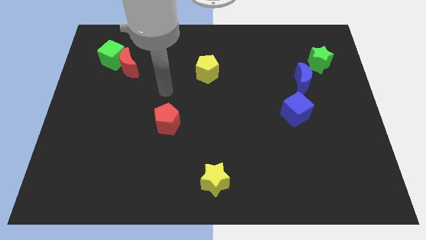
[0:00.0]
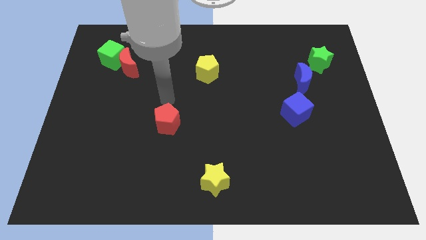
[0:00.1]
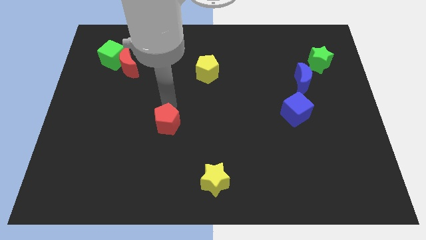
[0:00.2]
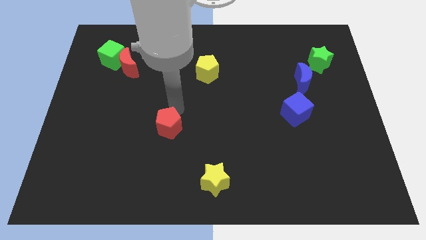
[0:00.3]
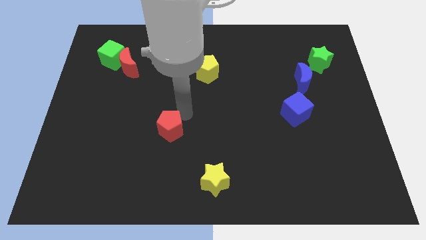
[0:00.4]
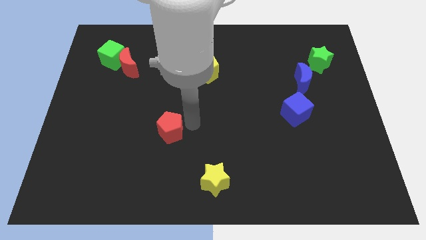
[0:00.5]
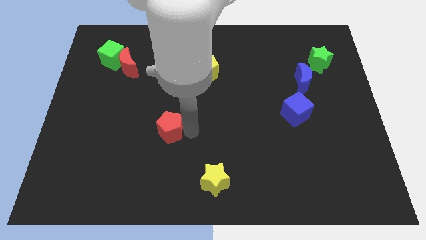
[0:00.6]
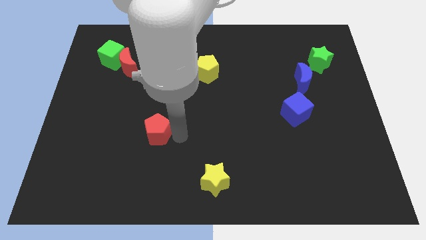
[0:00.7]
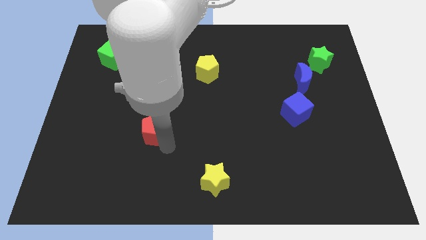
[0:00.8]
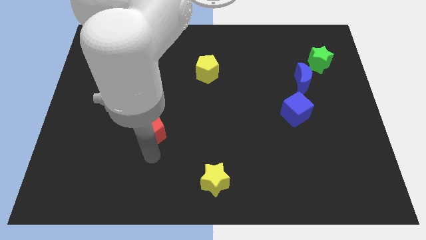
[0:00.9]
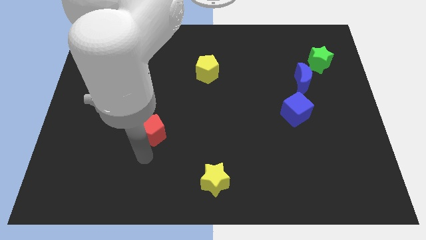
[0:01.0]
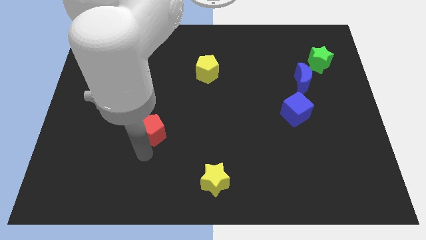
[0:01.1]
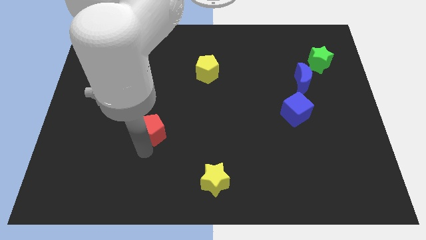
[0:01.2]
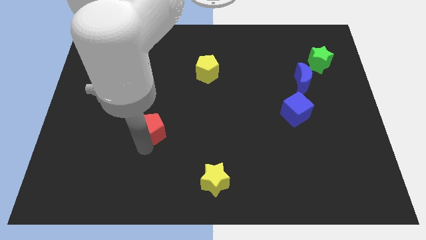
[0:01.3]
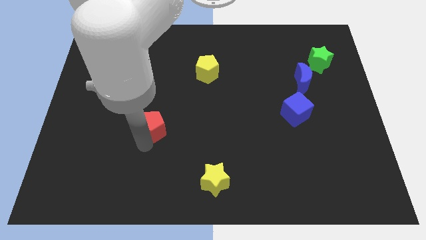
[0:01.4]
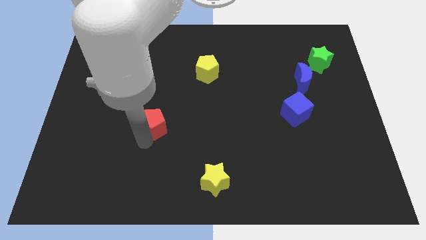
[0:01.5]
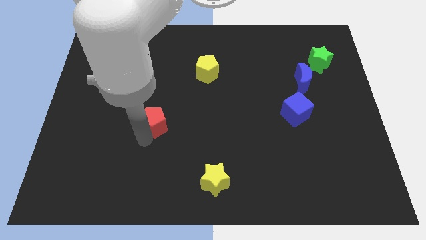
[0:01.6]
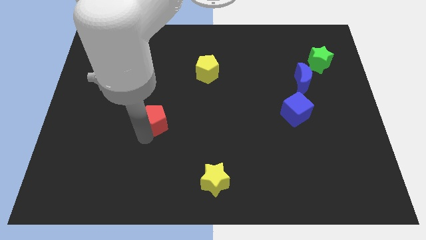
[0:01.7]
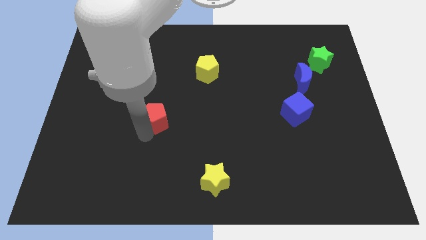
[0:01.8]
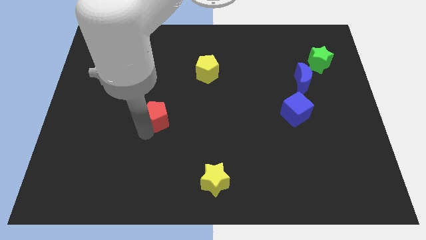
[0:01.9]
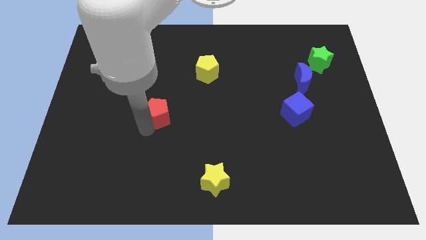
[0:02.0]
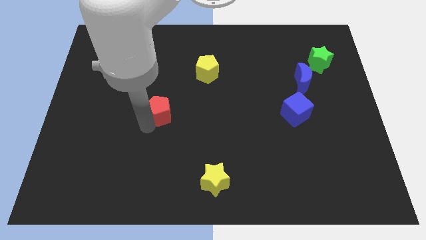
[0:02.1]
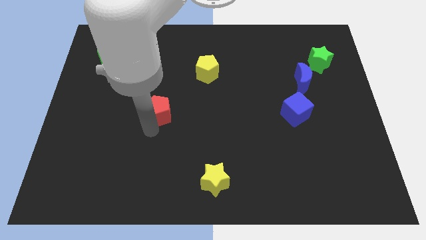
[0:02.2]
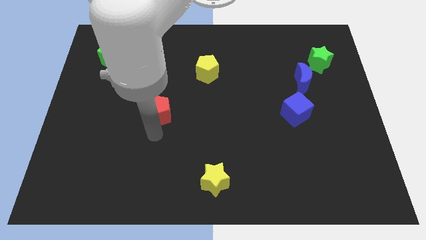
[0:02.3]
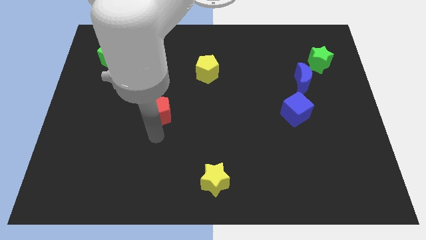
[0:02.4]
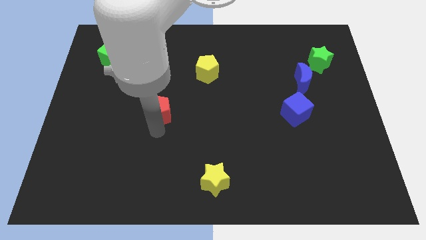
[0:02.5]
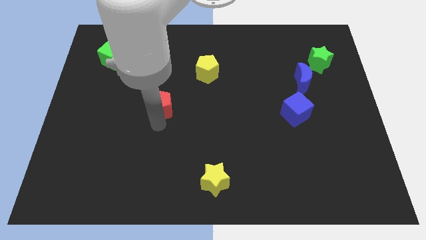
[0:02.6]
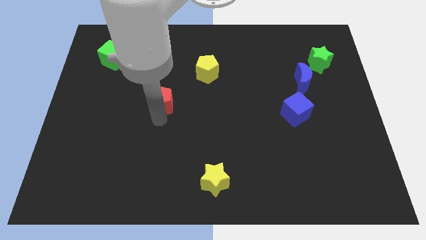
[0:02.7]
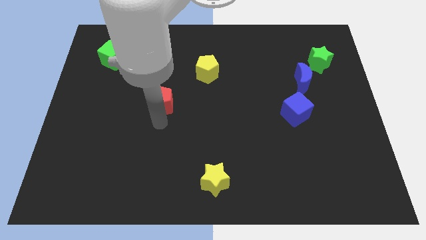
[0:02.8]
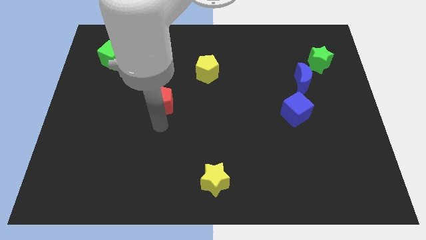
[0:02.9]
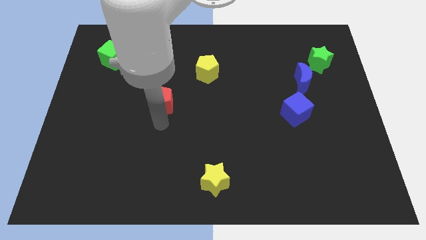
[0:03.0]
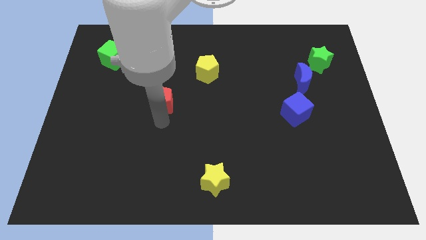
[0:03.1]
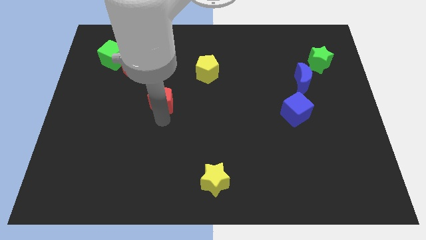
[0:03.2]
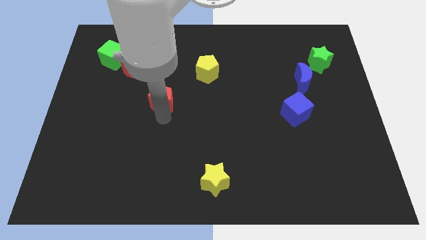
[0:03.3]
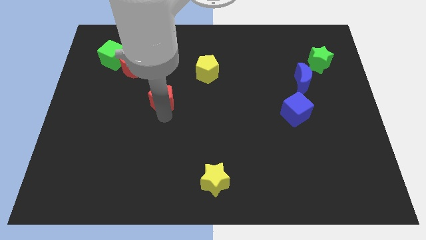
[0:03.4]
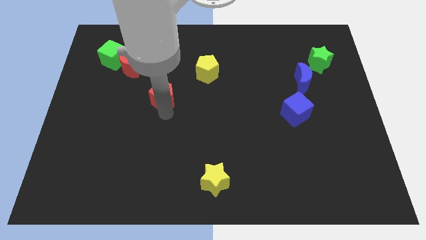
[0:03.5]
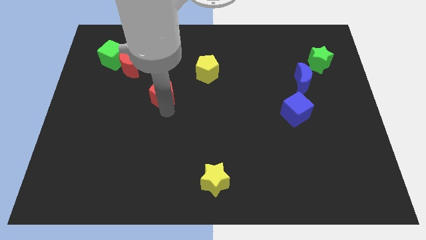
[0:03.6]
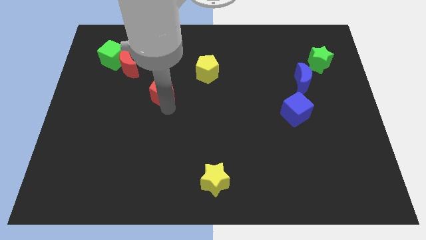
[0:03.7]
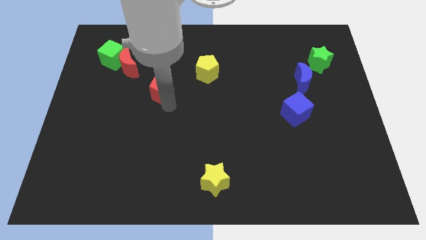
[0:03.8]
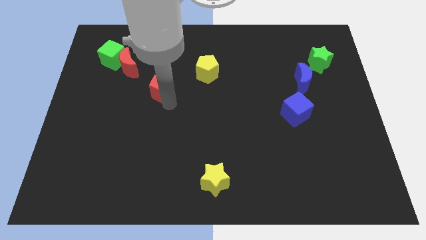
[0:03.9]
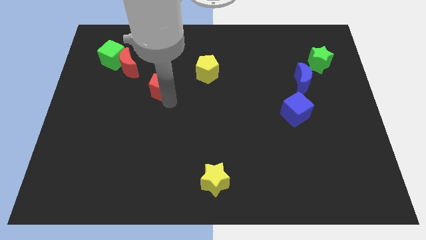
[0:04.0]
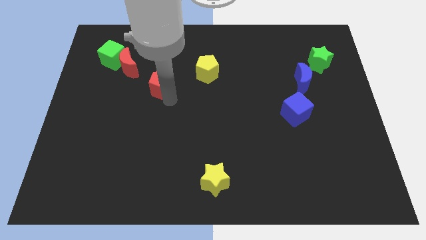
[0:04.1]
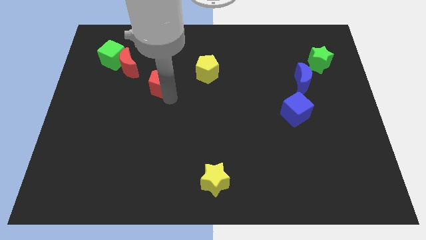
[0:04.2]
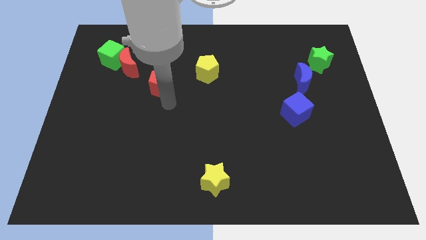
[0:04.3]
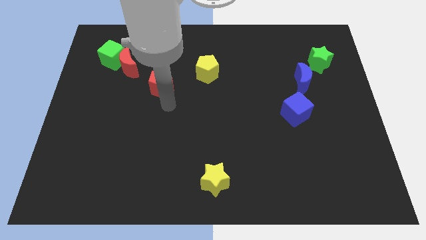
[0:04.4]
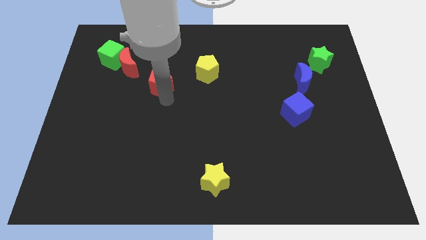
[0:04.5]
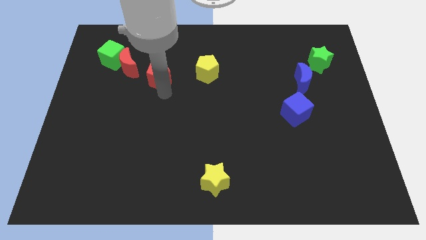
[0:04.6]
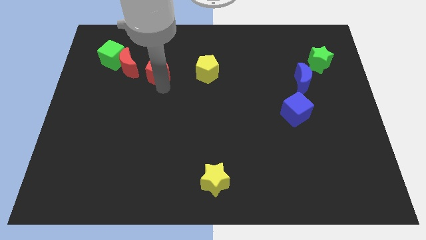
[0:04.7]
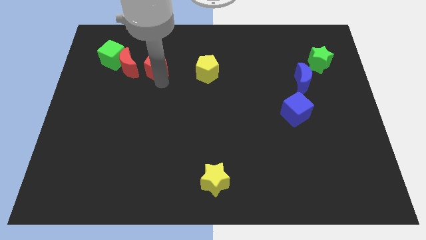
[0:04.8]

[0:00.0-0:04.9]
slide the red pentagon right of the green cube

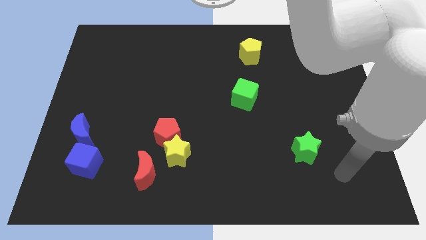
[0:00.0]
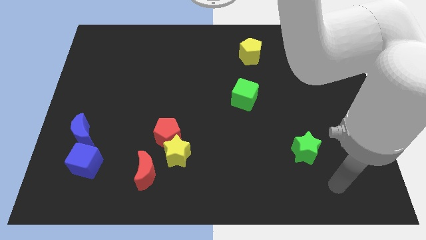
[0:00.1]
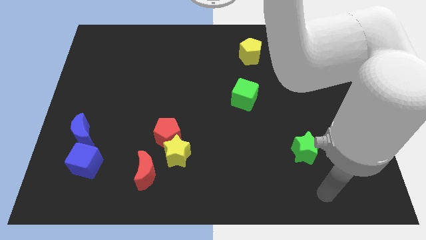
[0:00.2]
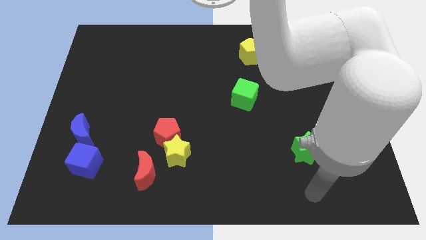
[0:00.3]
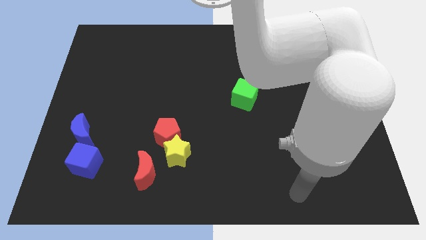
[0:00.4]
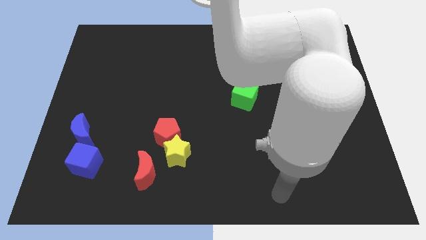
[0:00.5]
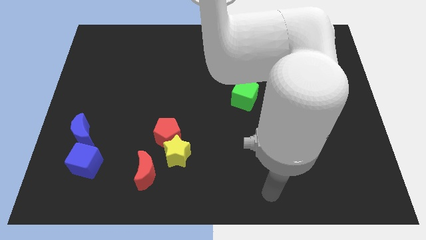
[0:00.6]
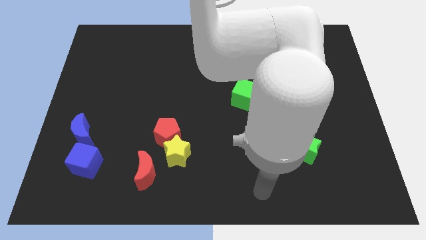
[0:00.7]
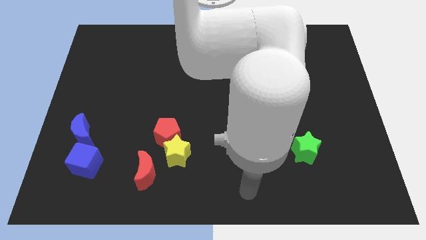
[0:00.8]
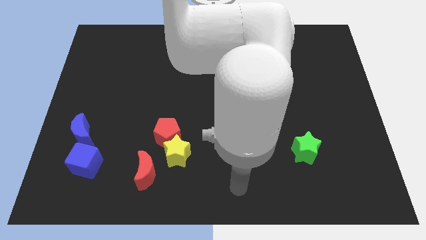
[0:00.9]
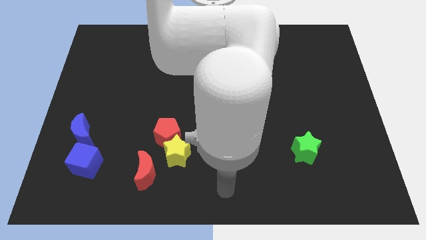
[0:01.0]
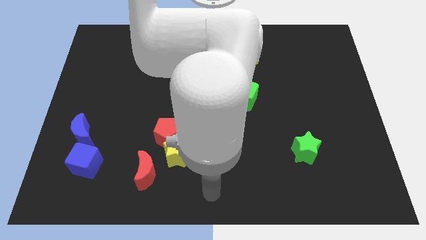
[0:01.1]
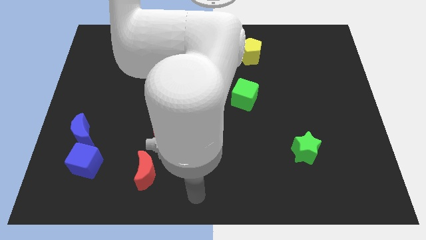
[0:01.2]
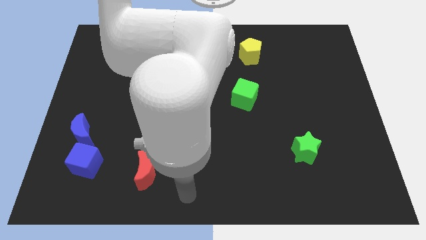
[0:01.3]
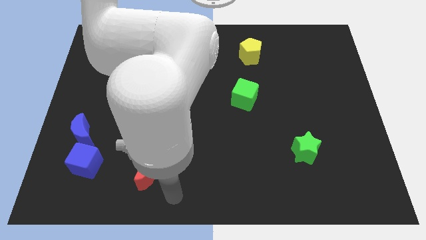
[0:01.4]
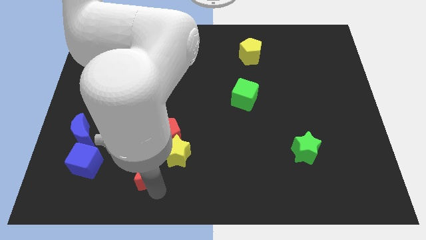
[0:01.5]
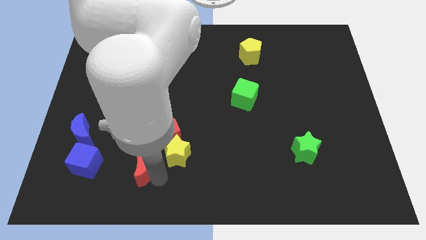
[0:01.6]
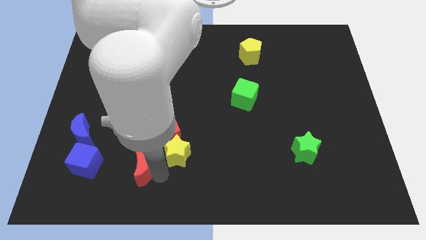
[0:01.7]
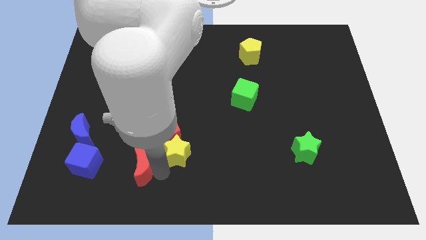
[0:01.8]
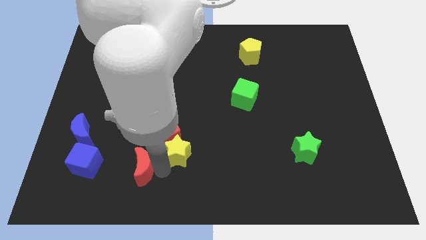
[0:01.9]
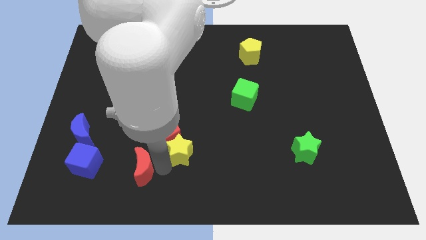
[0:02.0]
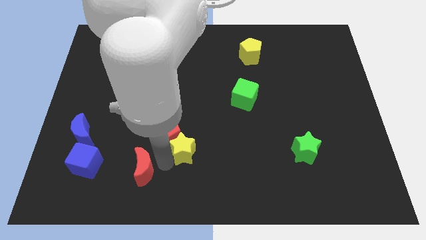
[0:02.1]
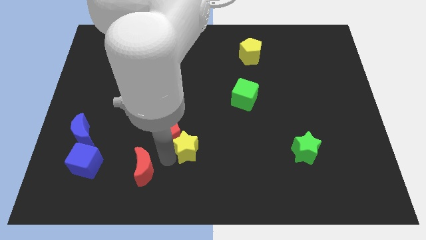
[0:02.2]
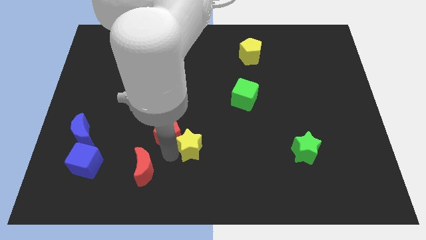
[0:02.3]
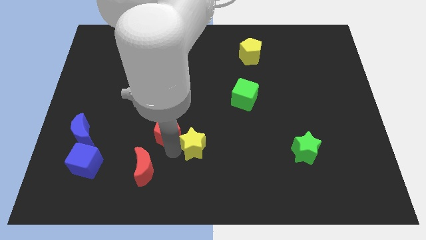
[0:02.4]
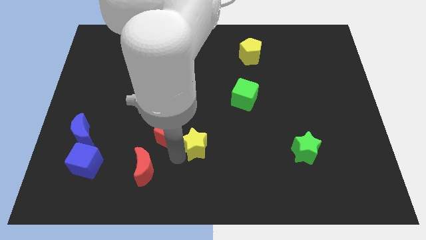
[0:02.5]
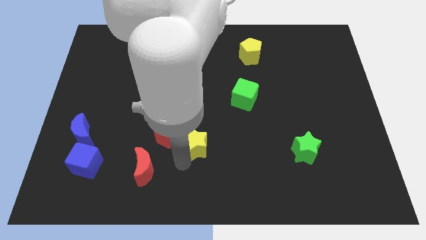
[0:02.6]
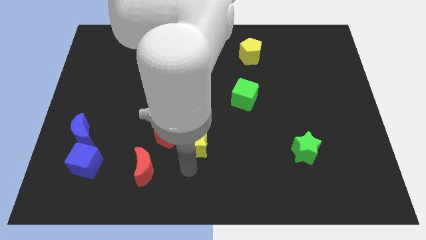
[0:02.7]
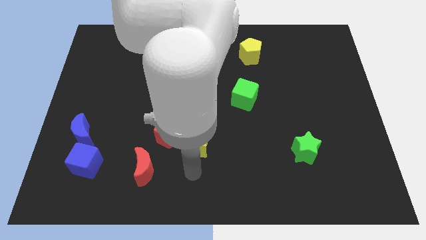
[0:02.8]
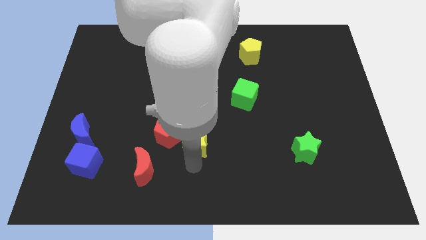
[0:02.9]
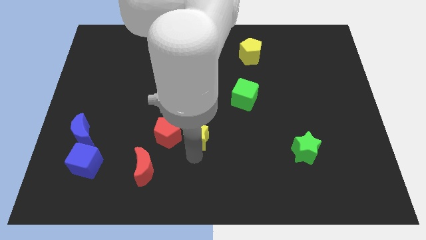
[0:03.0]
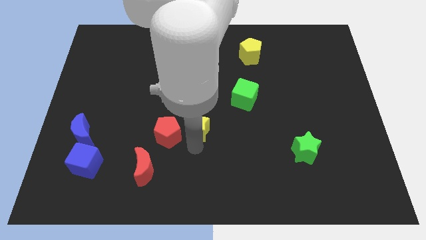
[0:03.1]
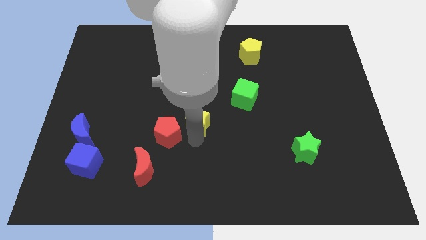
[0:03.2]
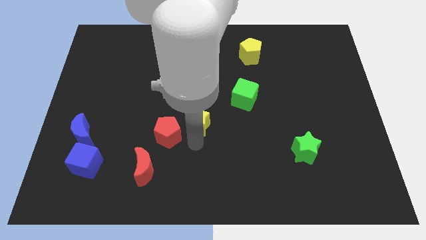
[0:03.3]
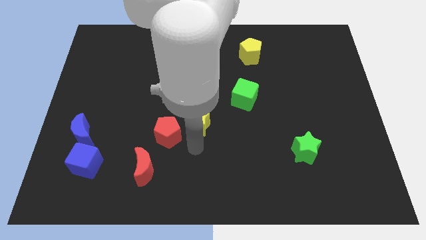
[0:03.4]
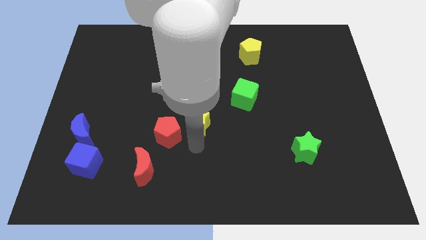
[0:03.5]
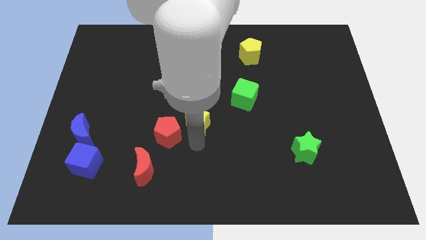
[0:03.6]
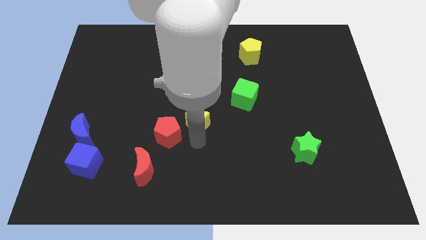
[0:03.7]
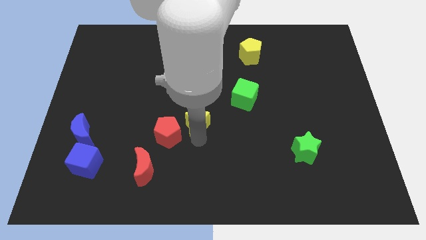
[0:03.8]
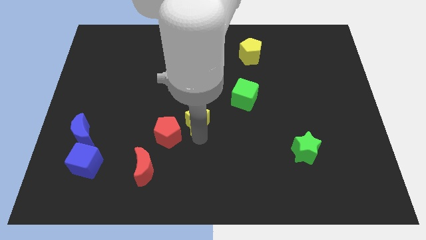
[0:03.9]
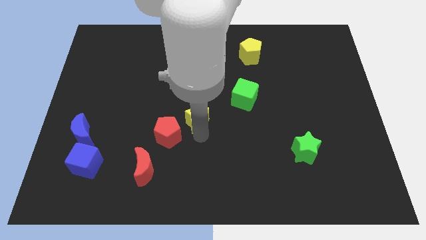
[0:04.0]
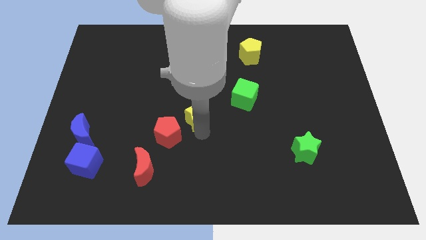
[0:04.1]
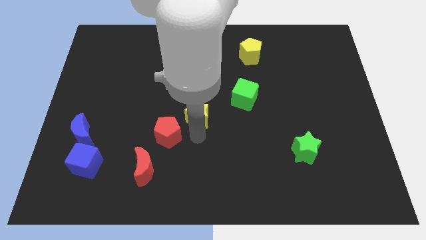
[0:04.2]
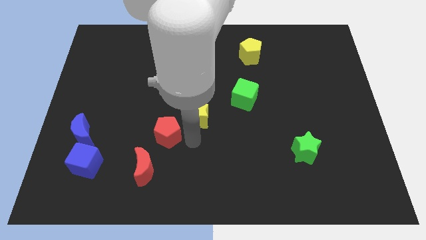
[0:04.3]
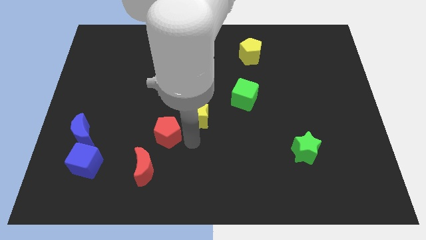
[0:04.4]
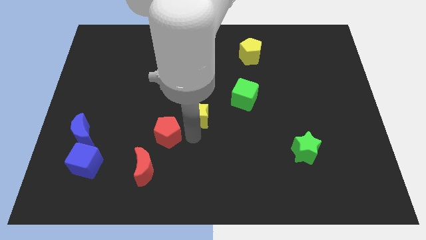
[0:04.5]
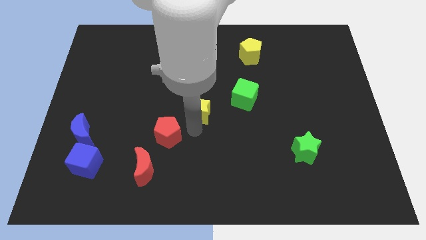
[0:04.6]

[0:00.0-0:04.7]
push the yellow star to the left side of the green cube
